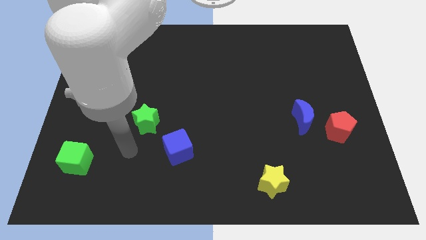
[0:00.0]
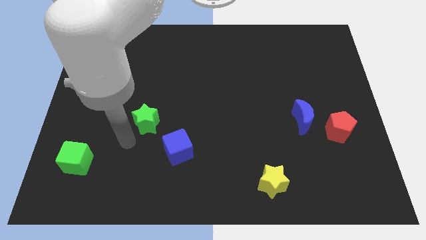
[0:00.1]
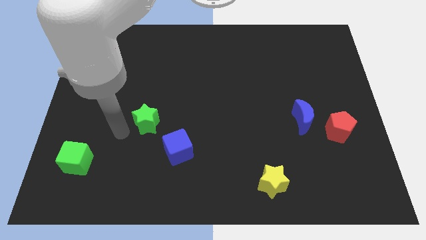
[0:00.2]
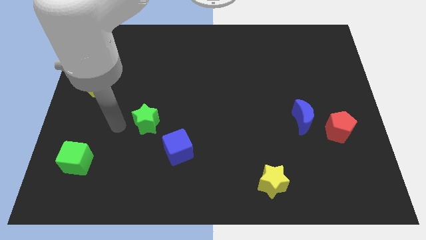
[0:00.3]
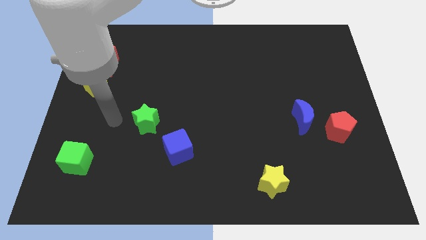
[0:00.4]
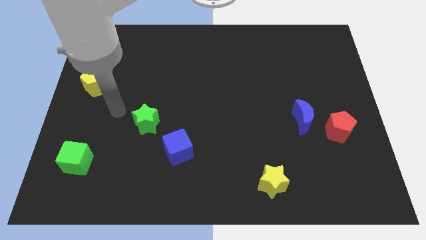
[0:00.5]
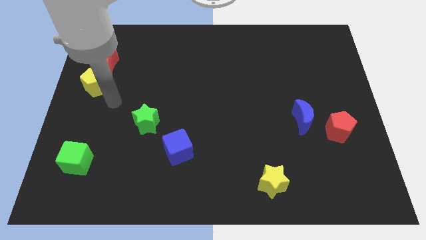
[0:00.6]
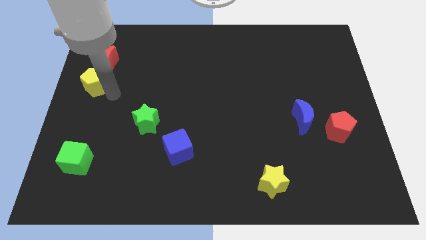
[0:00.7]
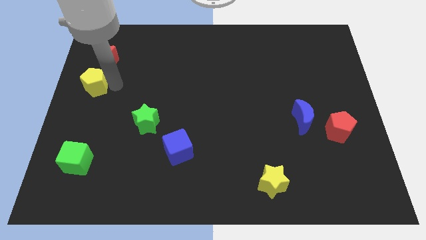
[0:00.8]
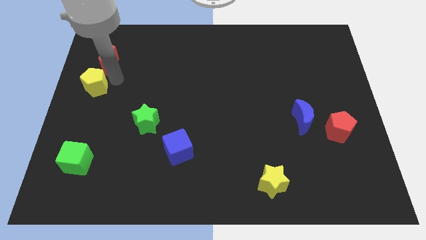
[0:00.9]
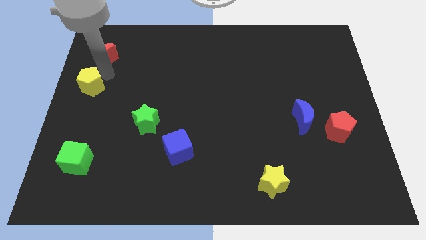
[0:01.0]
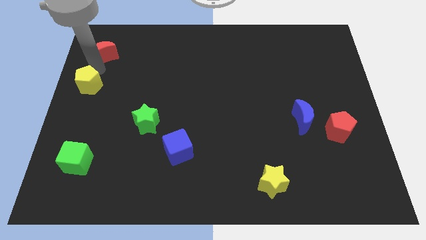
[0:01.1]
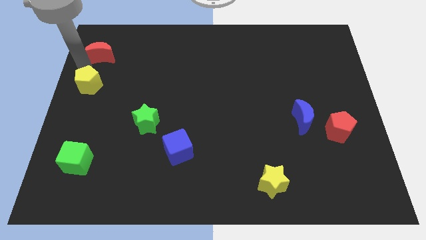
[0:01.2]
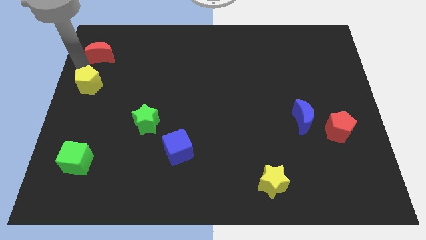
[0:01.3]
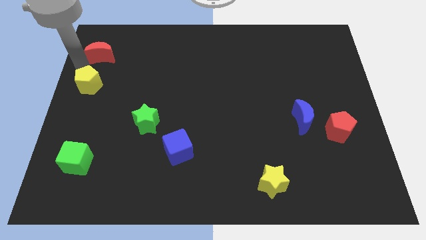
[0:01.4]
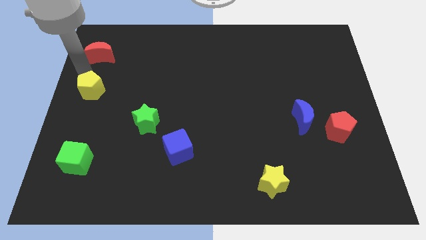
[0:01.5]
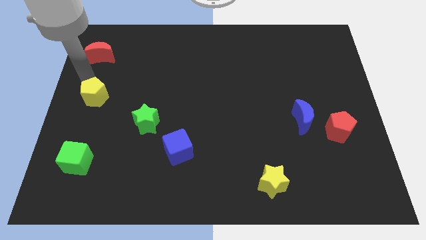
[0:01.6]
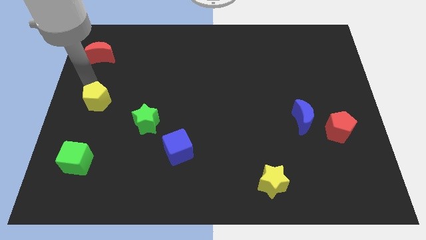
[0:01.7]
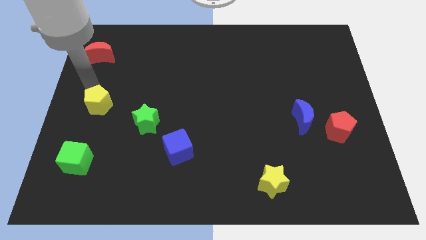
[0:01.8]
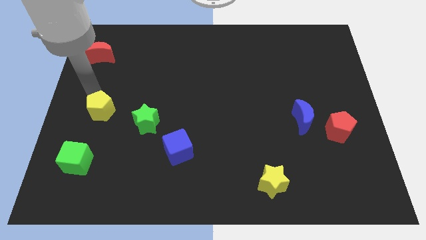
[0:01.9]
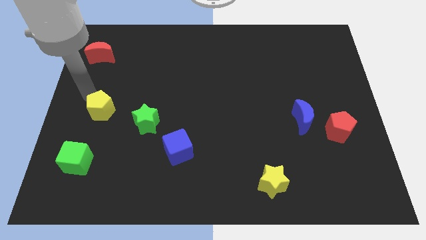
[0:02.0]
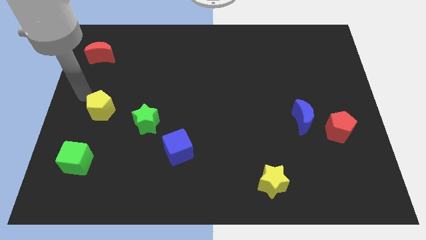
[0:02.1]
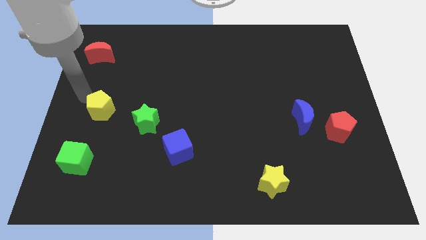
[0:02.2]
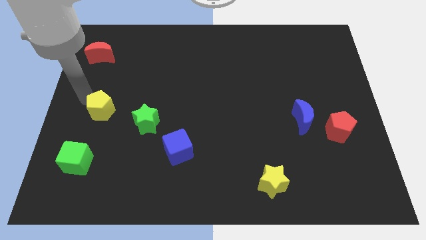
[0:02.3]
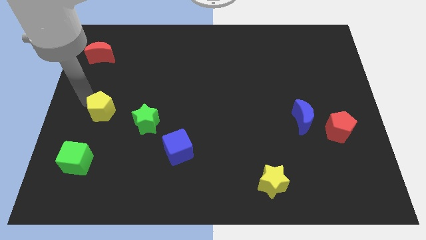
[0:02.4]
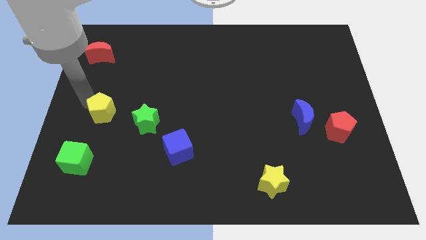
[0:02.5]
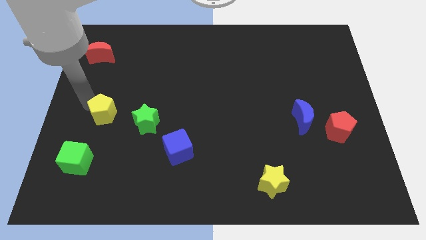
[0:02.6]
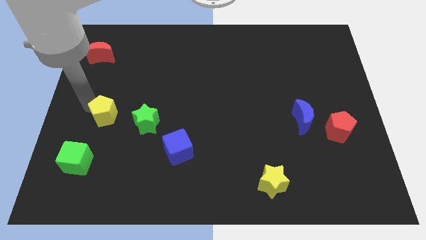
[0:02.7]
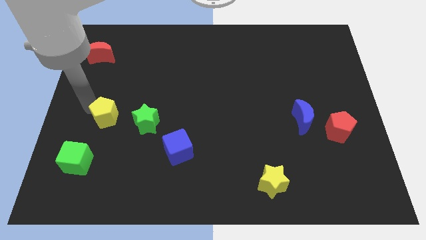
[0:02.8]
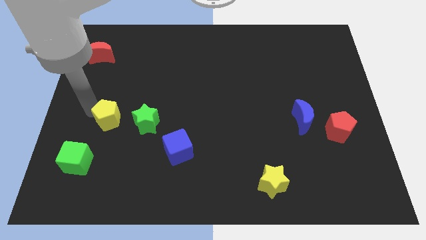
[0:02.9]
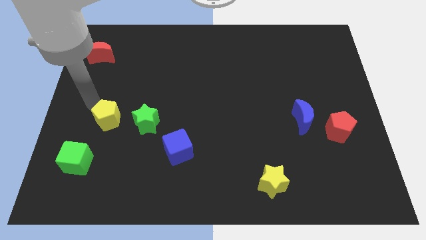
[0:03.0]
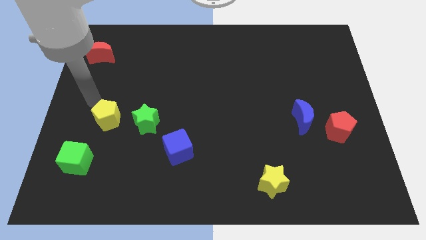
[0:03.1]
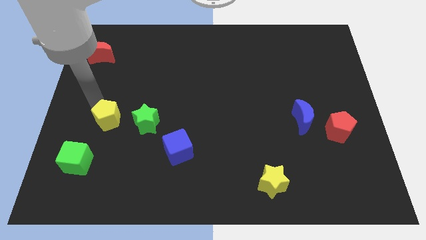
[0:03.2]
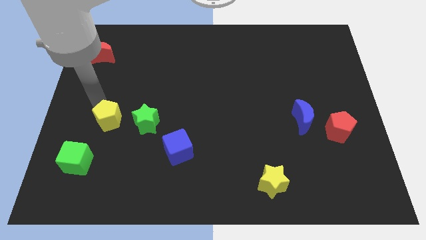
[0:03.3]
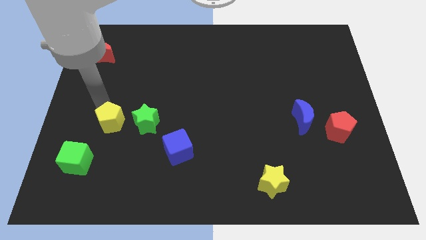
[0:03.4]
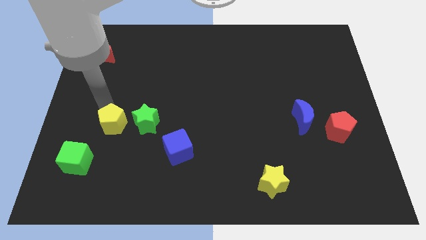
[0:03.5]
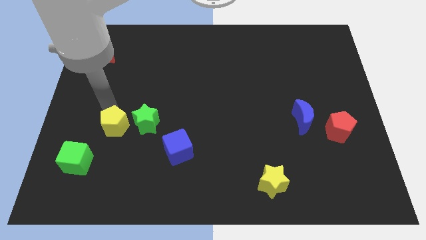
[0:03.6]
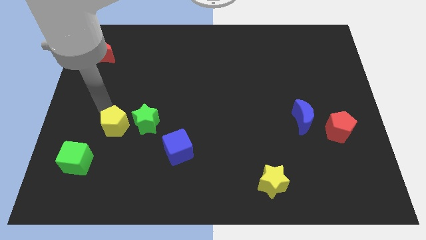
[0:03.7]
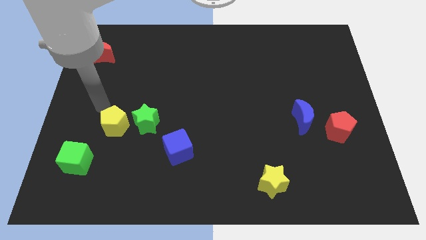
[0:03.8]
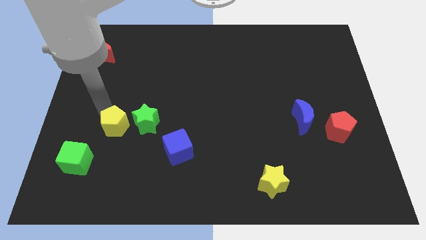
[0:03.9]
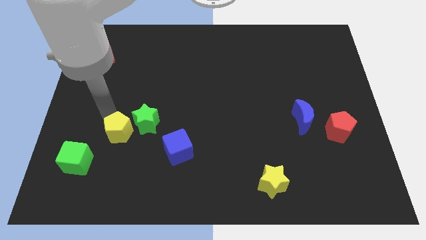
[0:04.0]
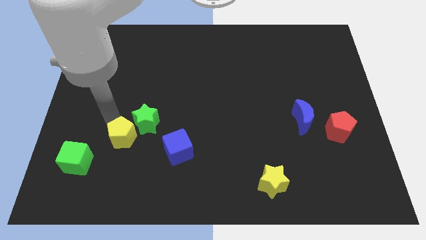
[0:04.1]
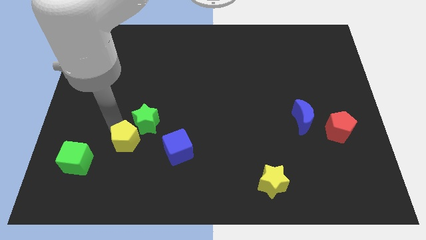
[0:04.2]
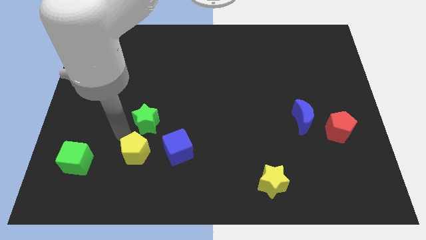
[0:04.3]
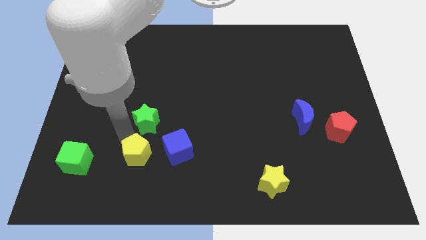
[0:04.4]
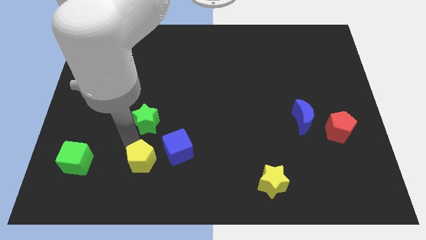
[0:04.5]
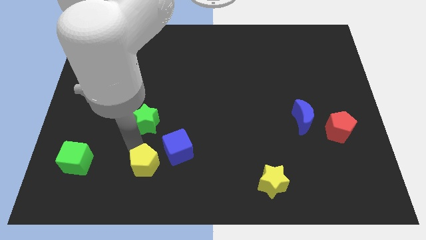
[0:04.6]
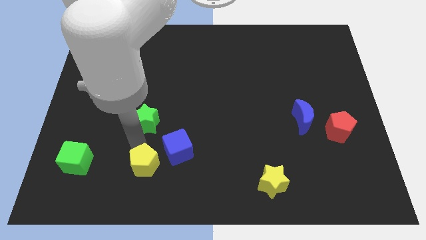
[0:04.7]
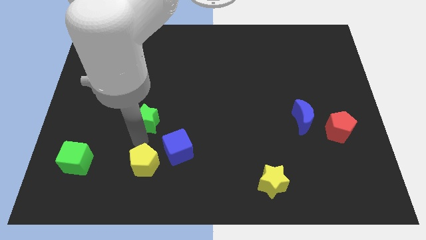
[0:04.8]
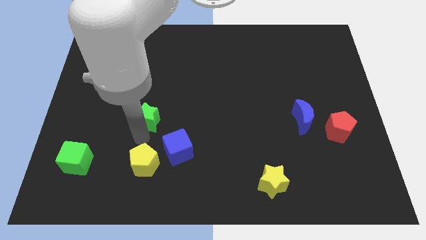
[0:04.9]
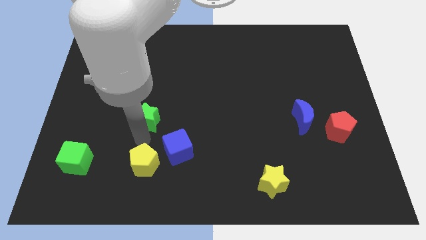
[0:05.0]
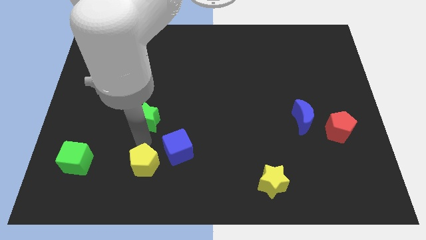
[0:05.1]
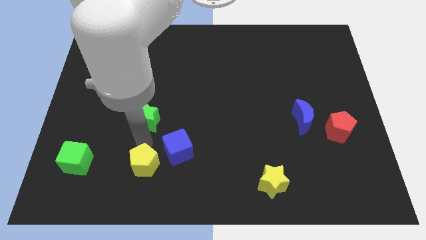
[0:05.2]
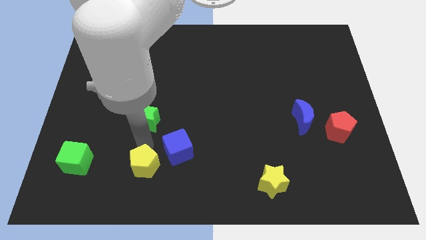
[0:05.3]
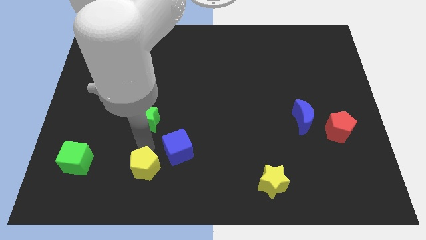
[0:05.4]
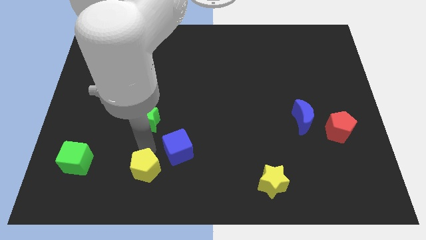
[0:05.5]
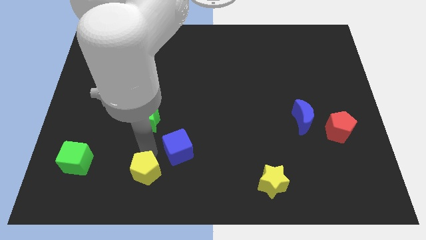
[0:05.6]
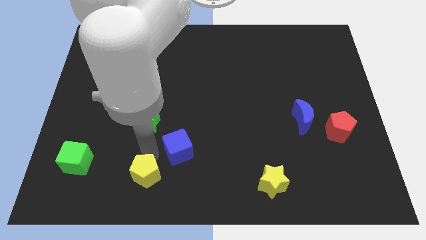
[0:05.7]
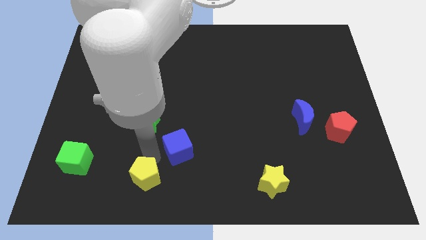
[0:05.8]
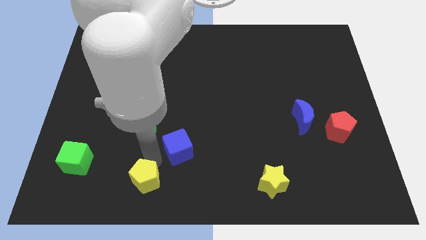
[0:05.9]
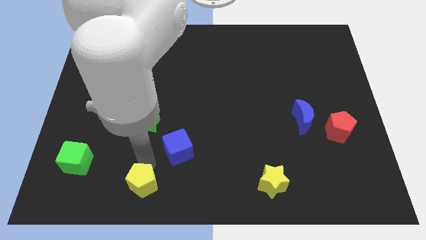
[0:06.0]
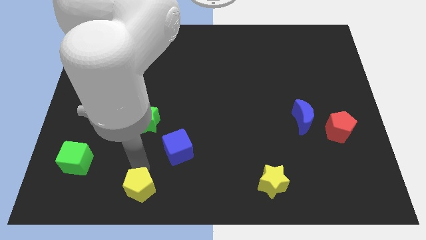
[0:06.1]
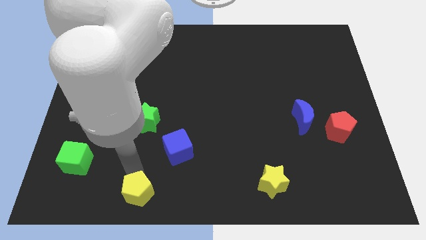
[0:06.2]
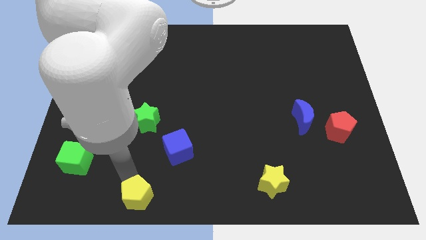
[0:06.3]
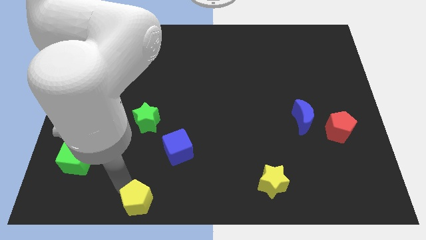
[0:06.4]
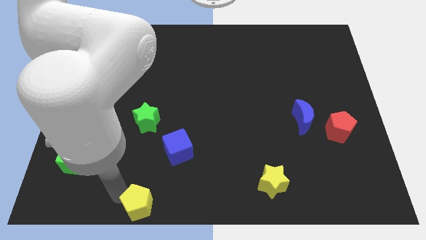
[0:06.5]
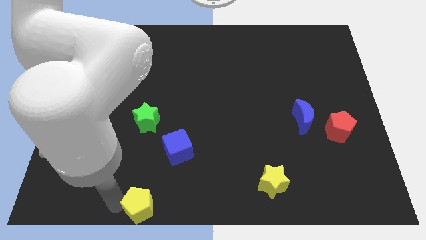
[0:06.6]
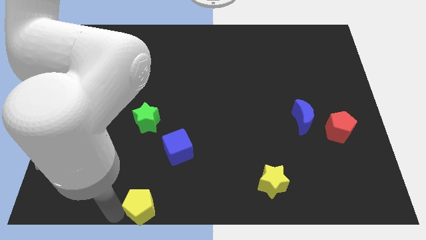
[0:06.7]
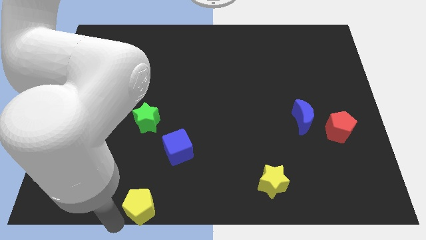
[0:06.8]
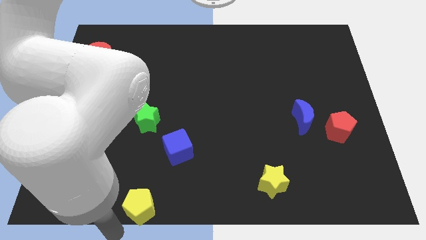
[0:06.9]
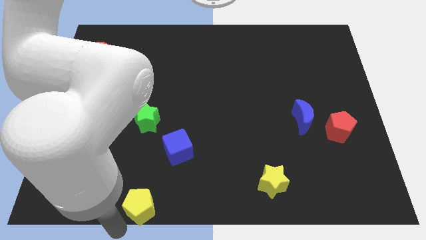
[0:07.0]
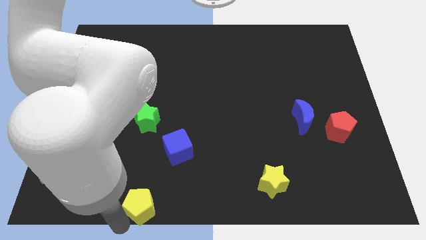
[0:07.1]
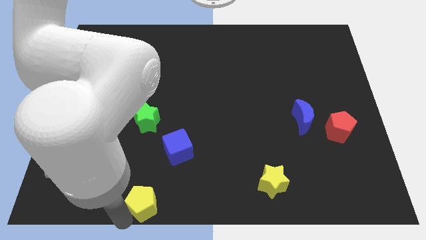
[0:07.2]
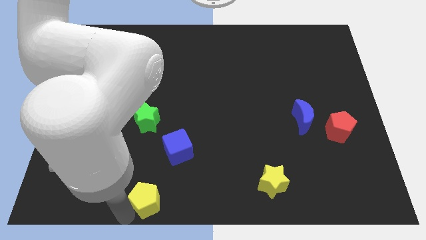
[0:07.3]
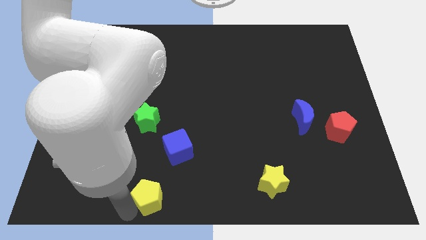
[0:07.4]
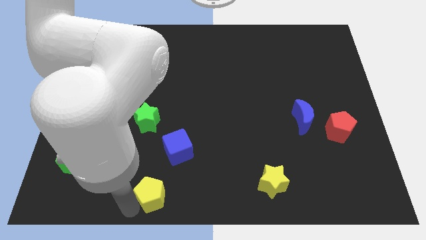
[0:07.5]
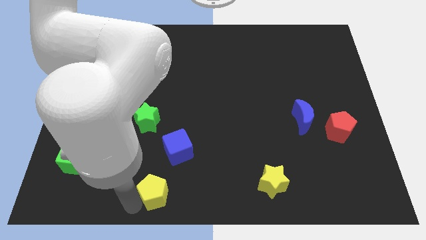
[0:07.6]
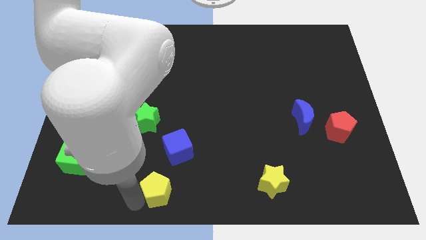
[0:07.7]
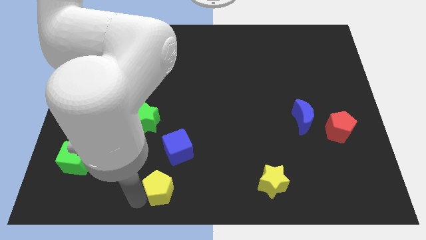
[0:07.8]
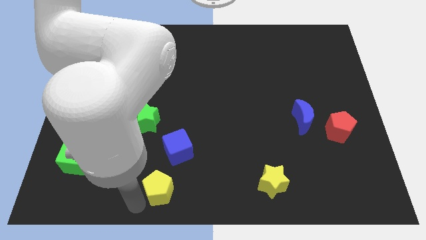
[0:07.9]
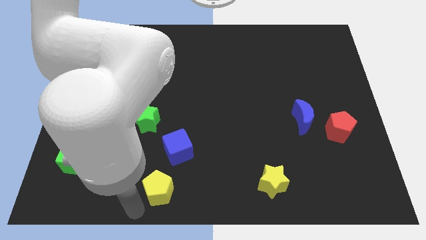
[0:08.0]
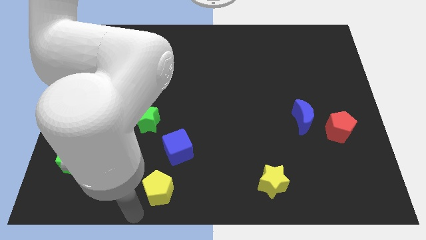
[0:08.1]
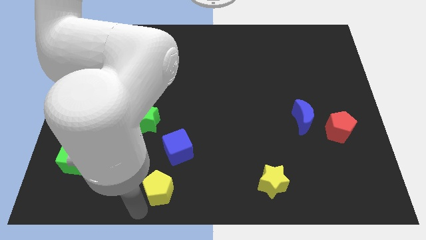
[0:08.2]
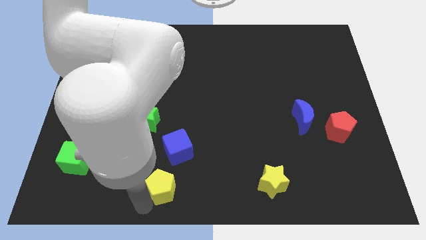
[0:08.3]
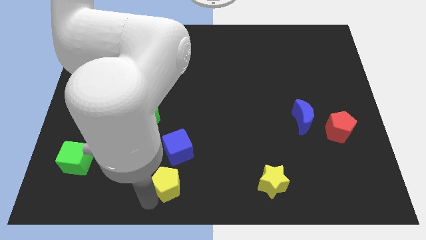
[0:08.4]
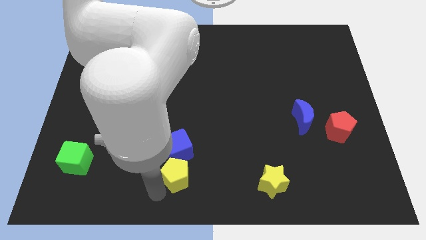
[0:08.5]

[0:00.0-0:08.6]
put the yellow pentagon to the bottom right of the blue cube
